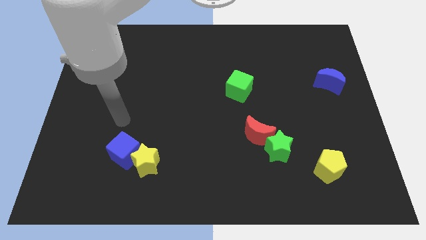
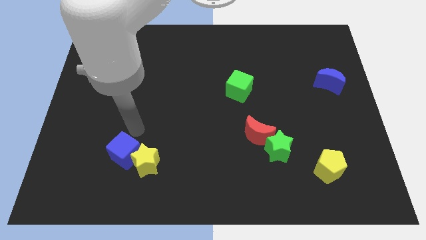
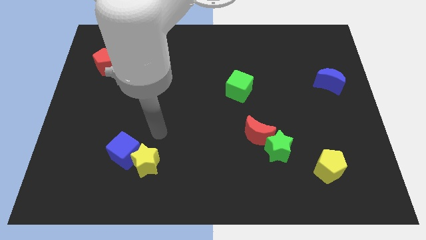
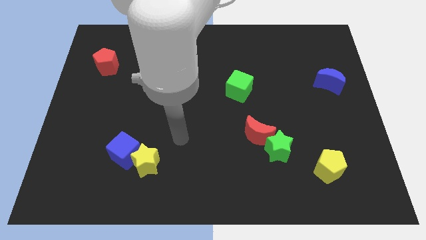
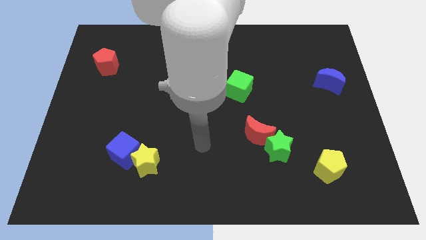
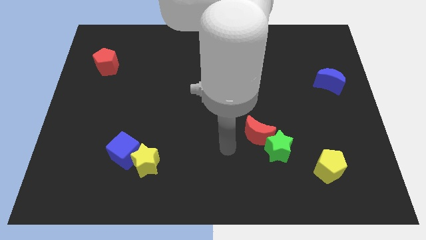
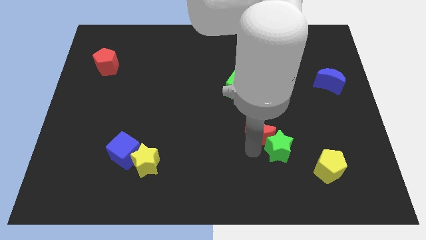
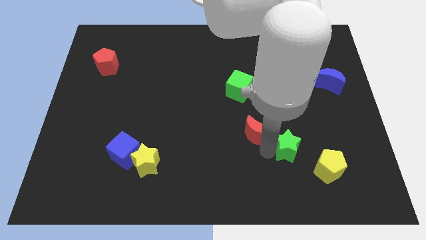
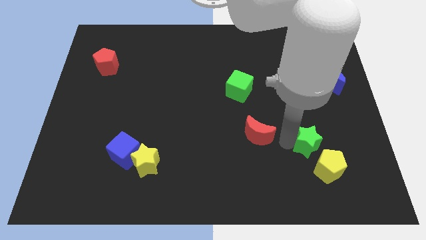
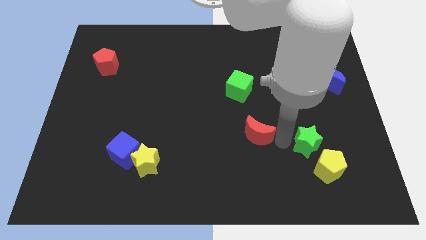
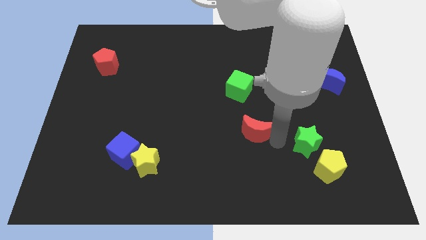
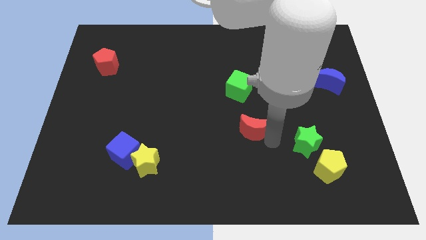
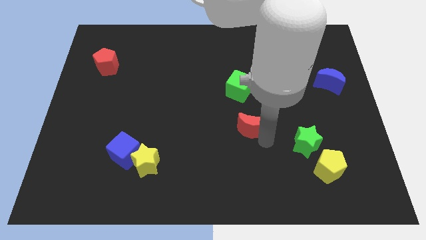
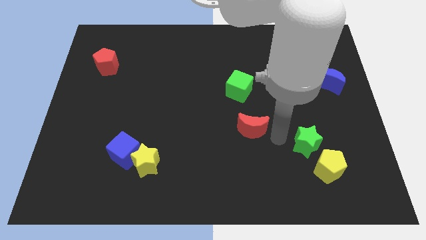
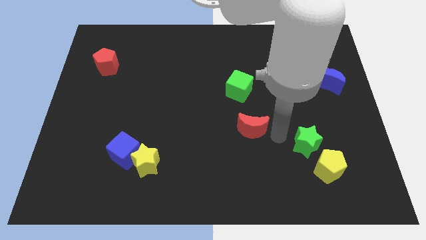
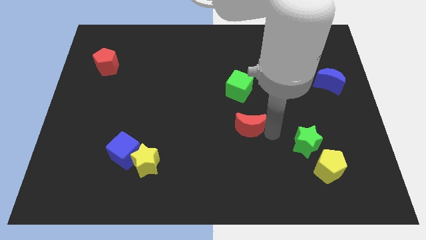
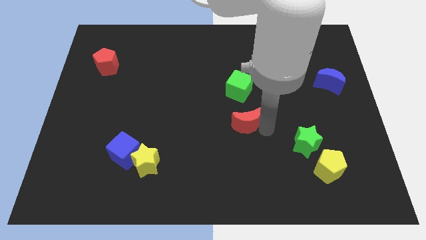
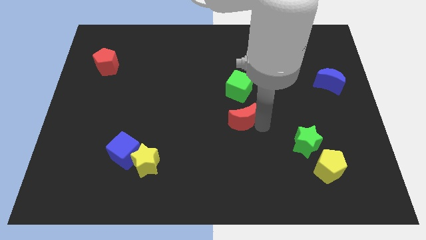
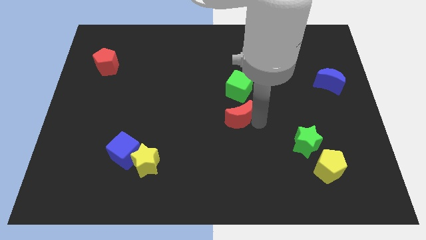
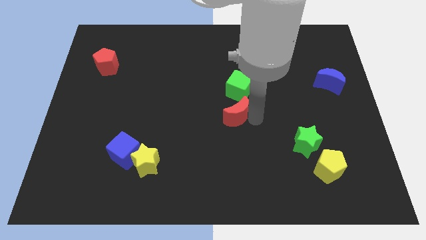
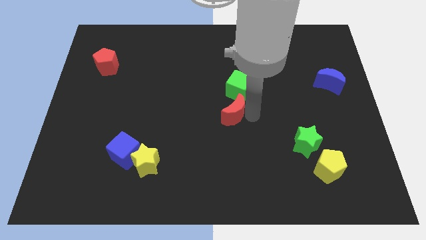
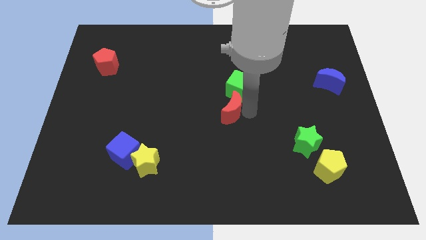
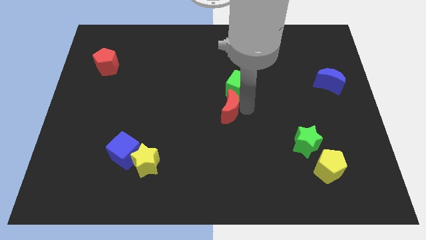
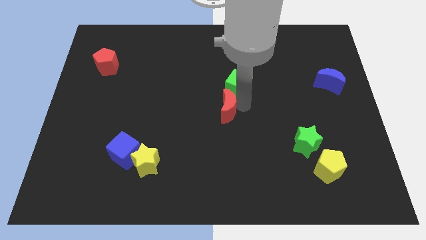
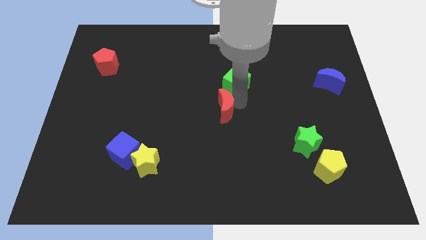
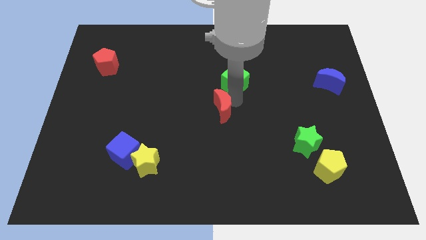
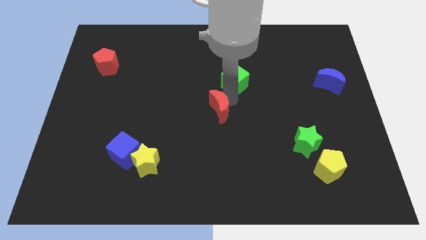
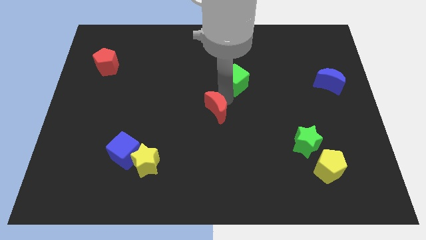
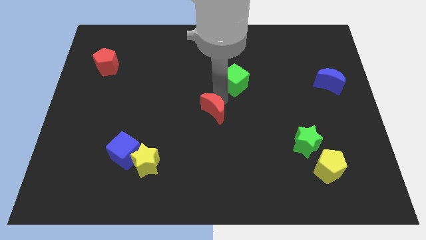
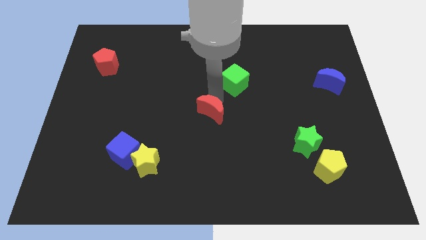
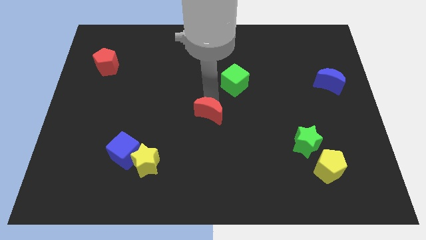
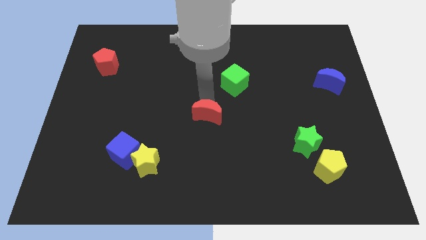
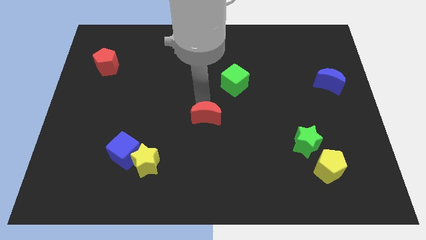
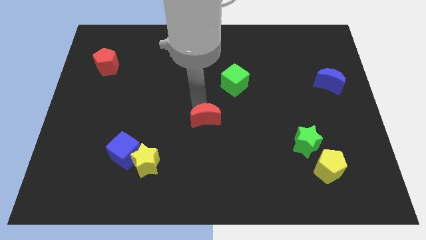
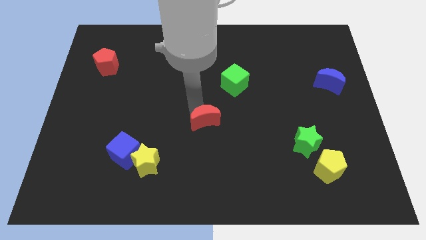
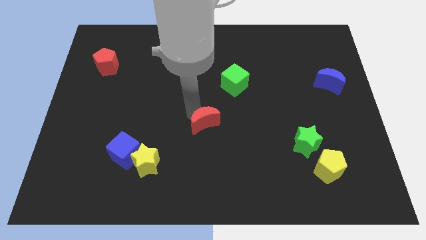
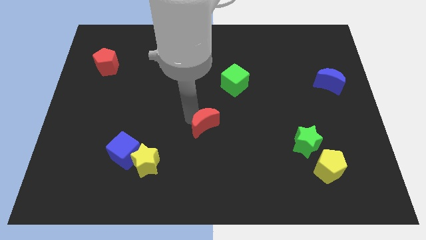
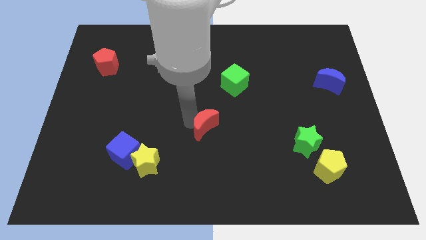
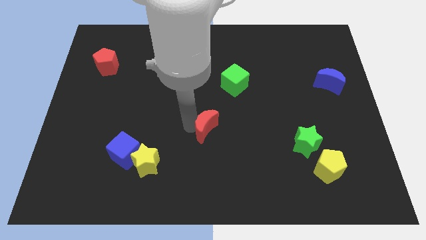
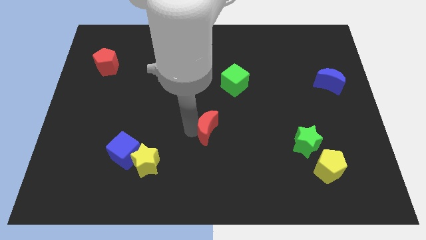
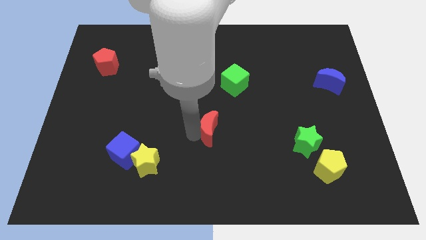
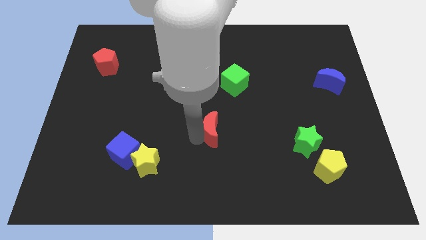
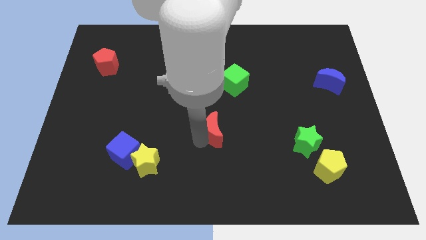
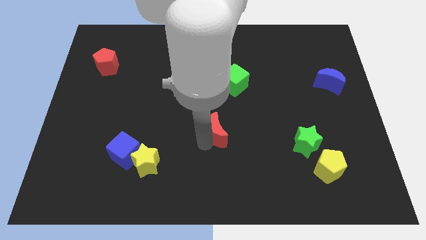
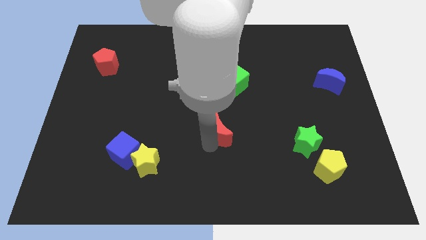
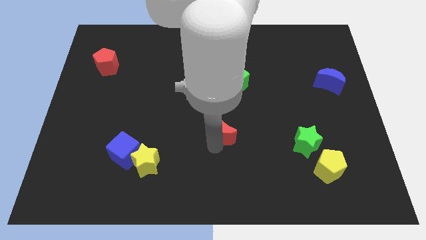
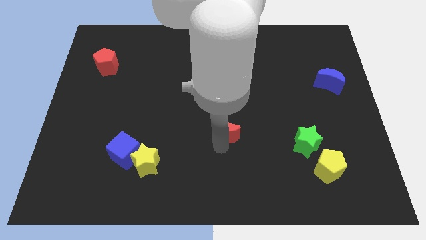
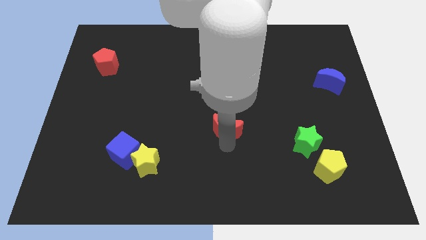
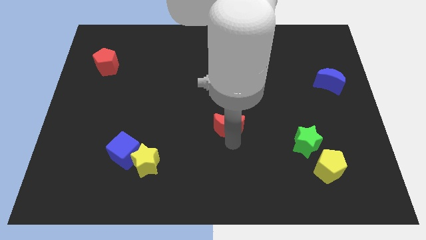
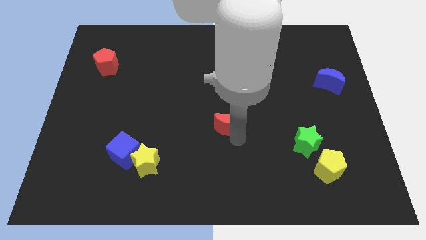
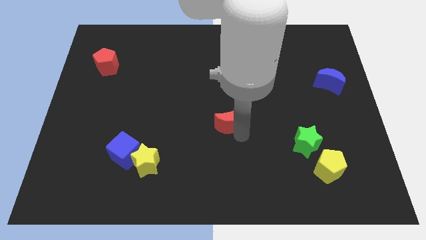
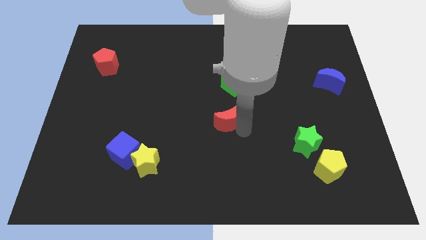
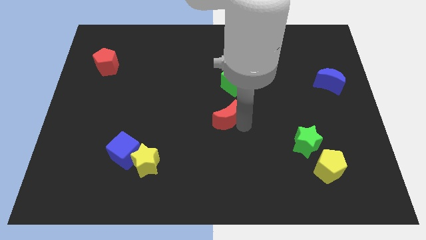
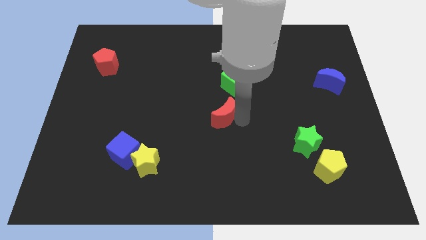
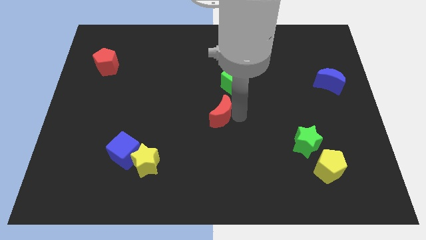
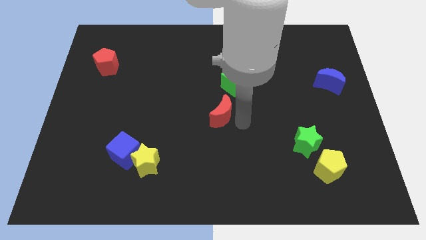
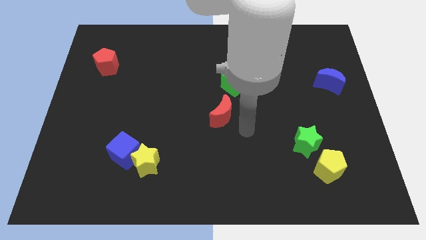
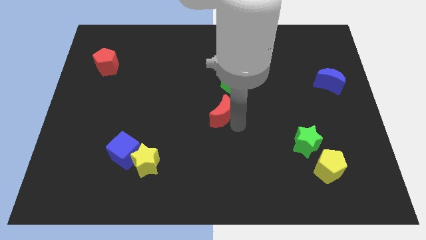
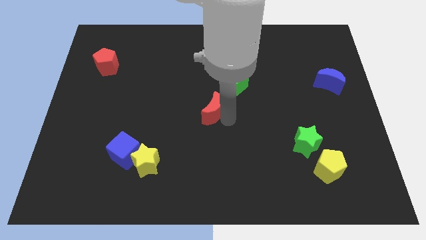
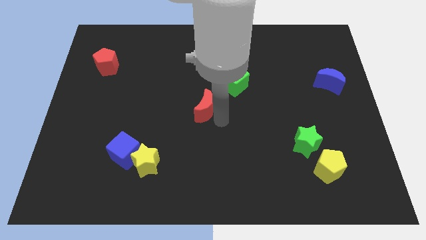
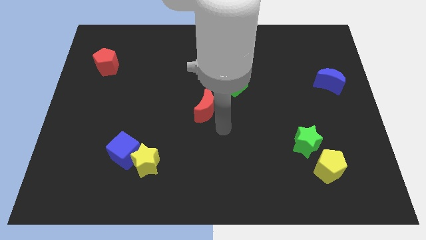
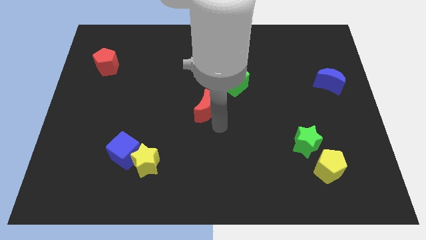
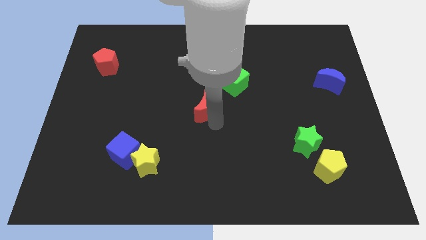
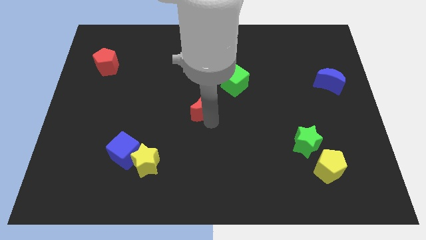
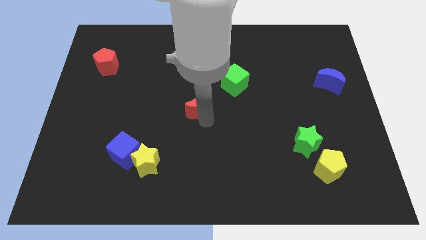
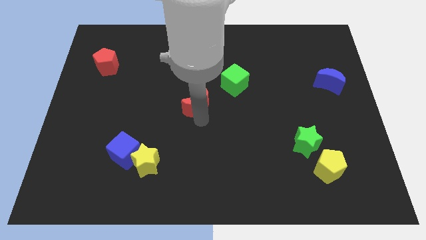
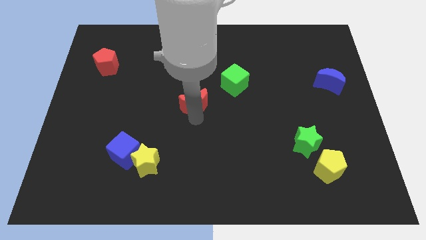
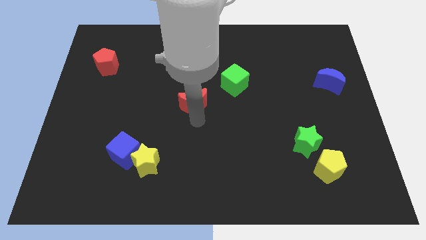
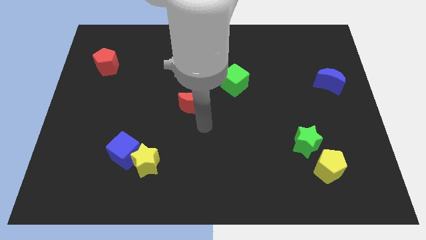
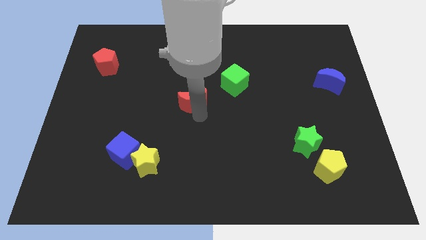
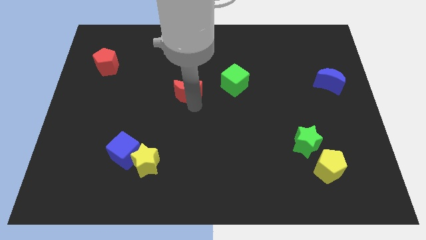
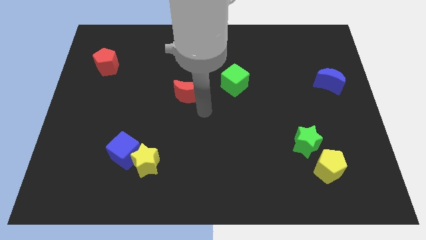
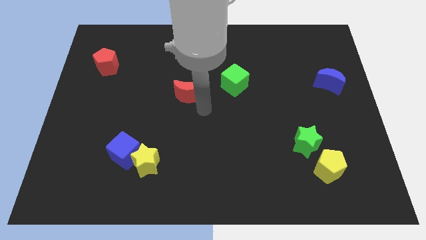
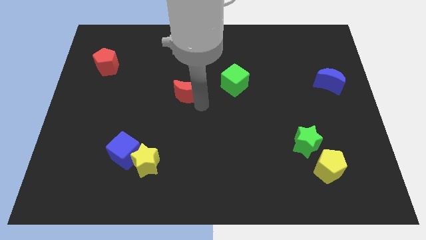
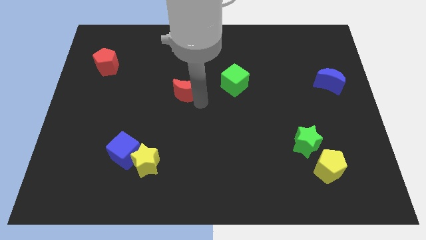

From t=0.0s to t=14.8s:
push the red moon up and left diagonally

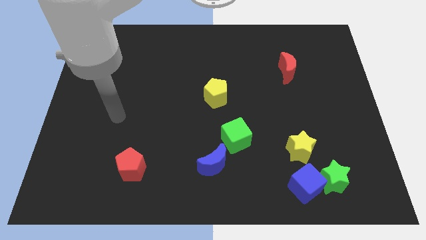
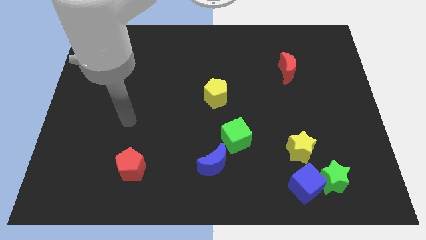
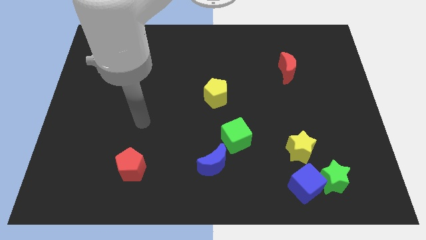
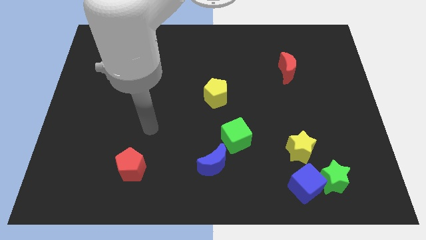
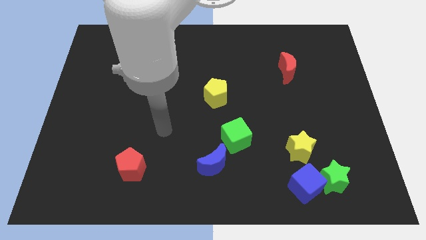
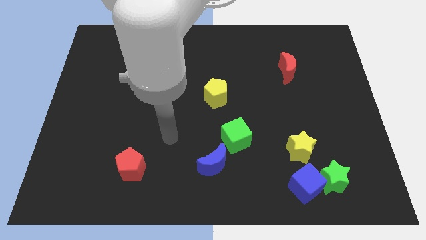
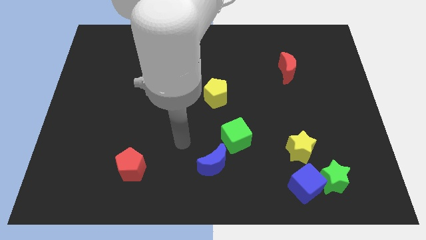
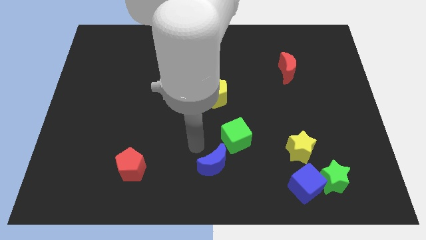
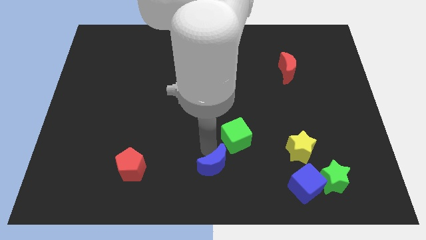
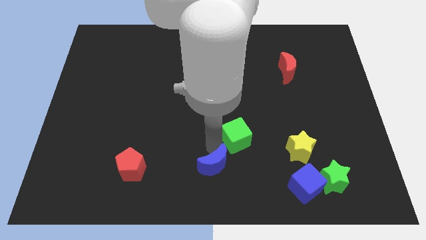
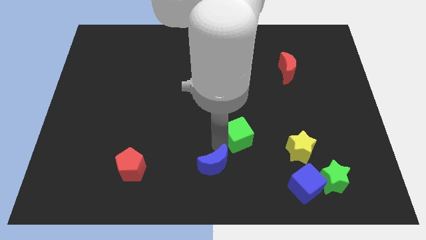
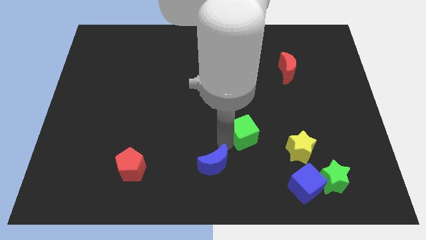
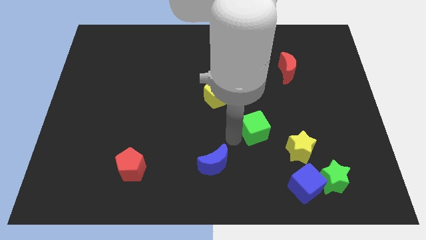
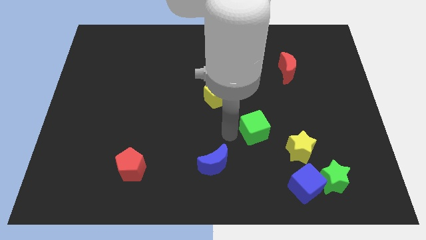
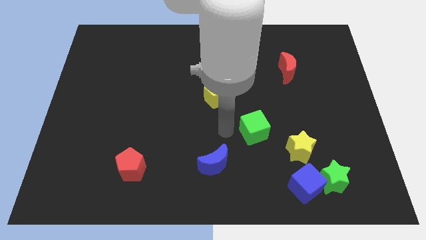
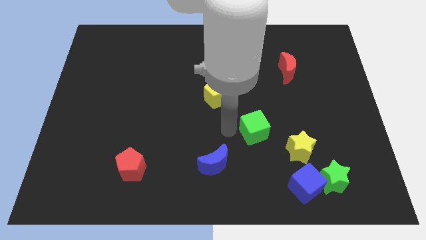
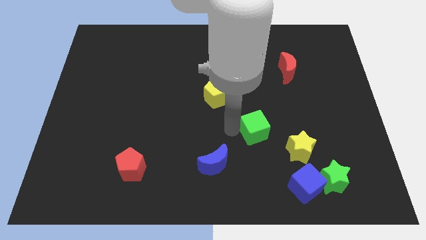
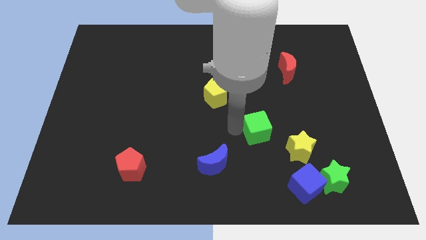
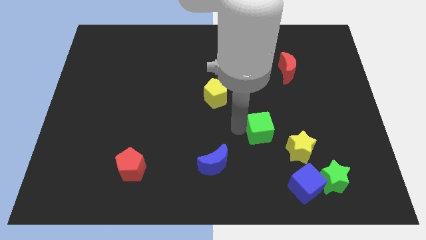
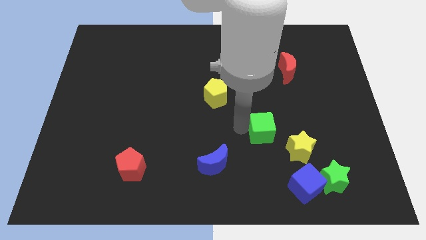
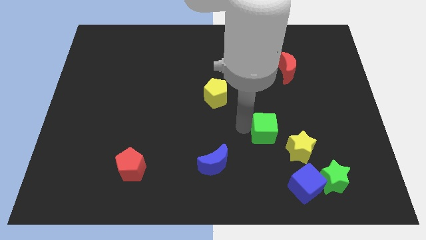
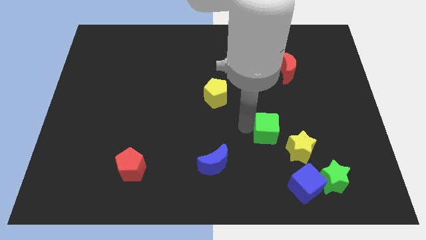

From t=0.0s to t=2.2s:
slide the green cube to the right a little bit
